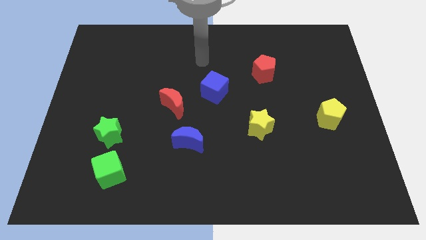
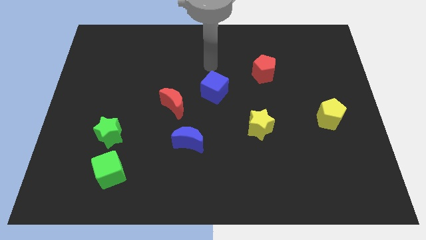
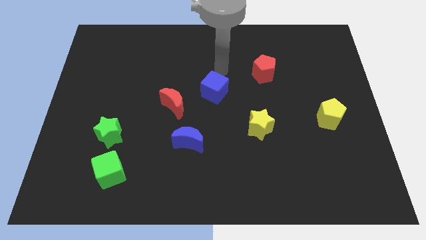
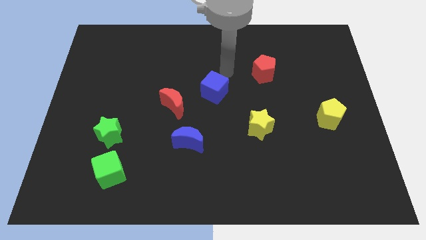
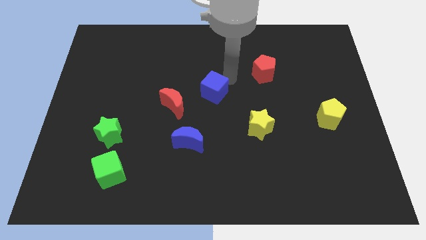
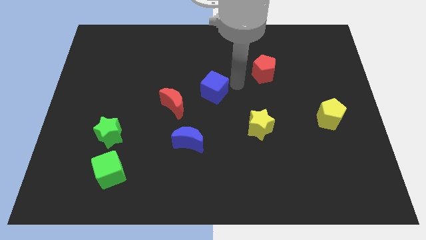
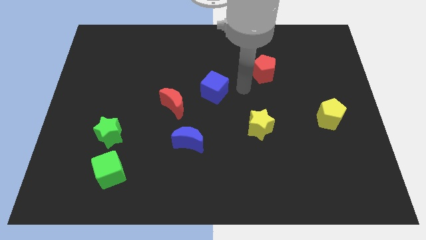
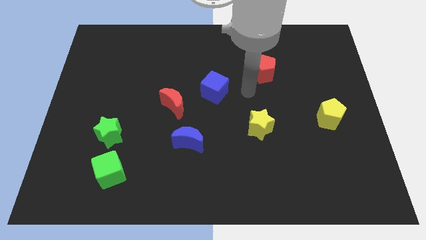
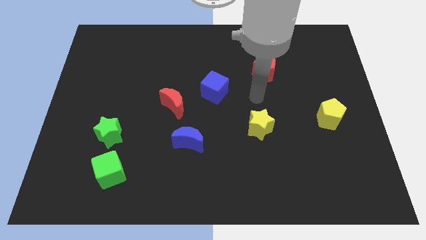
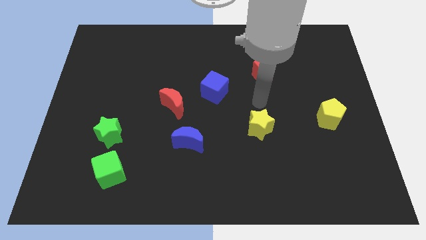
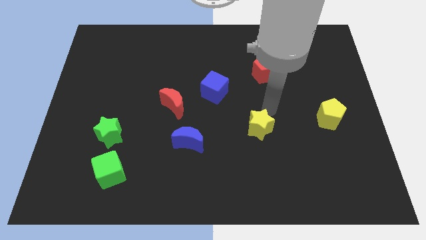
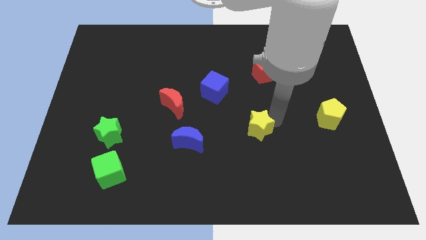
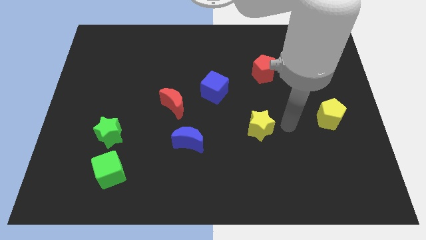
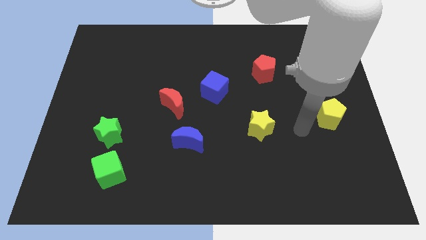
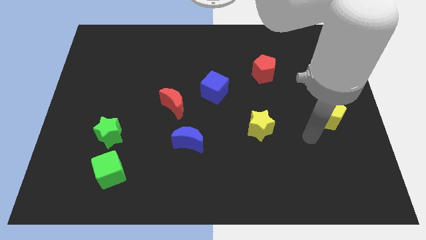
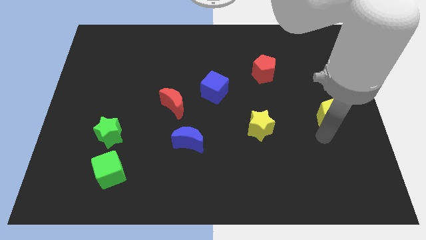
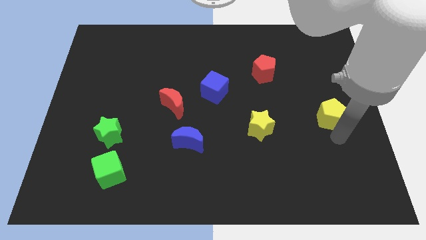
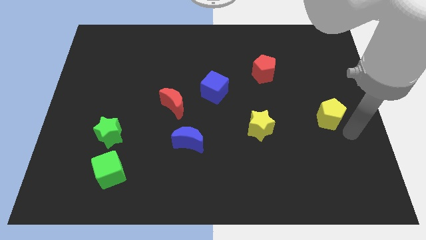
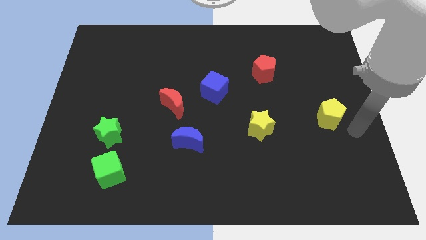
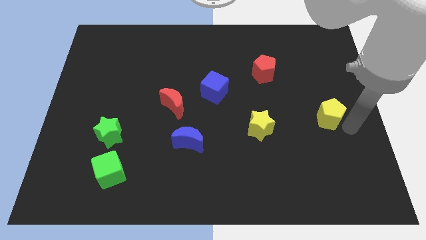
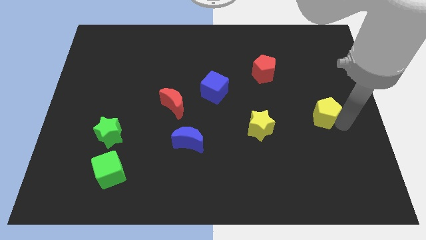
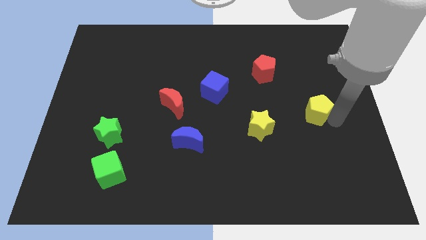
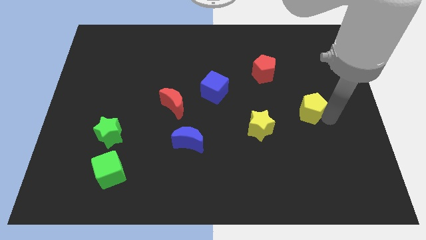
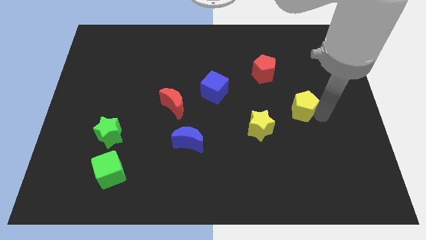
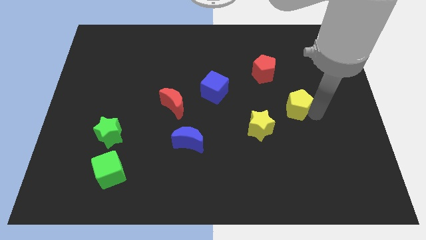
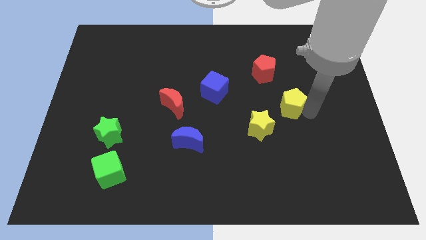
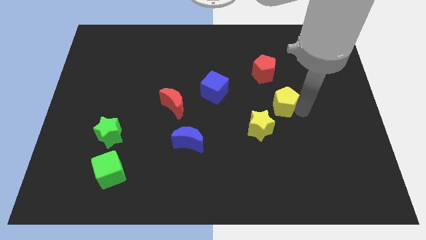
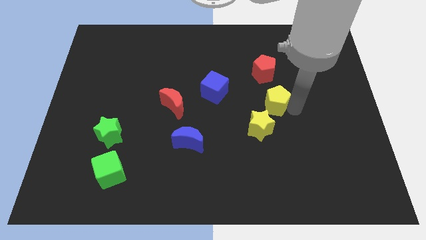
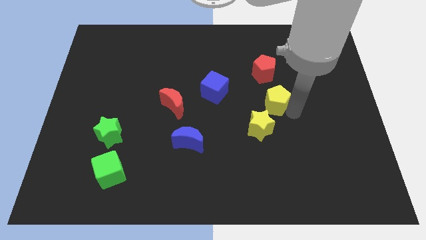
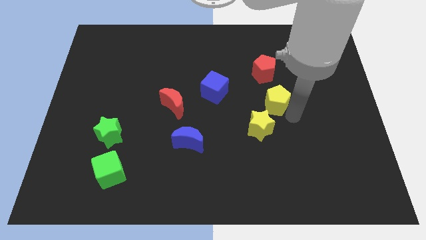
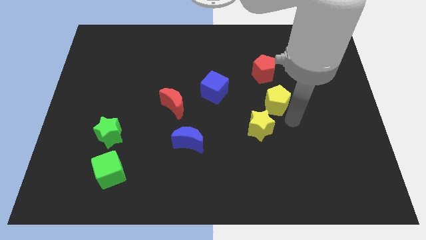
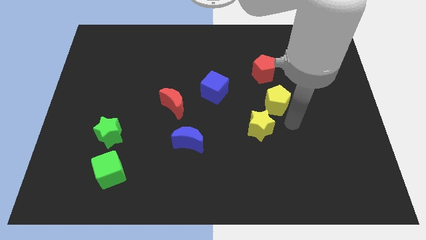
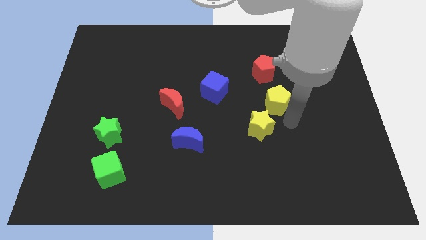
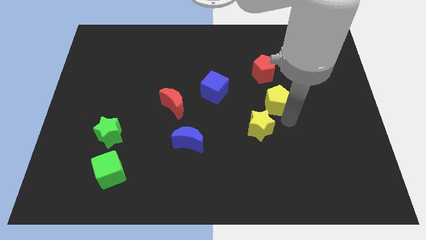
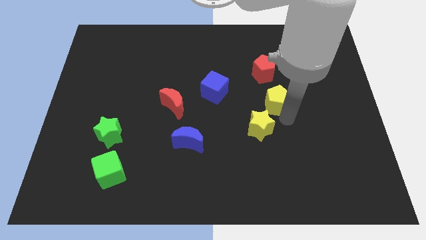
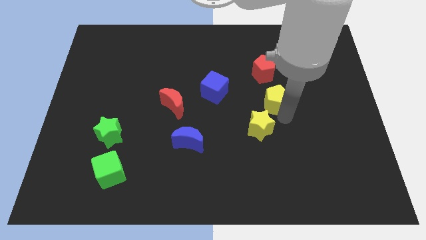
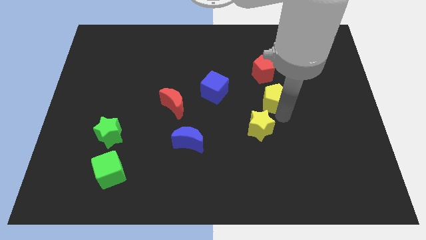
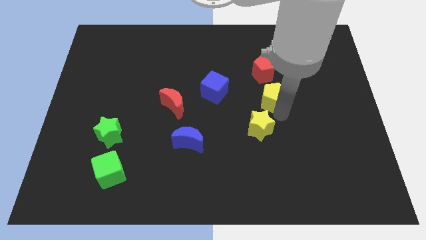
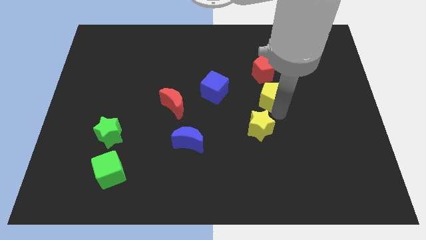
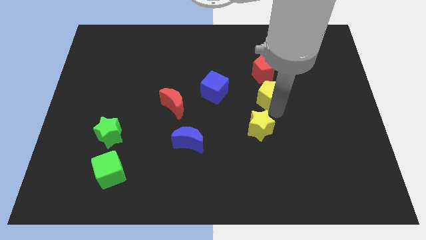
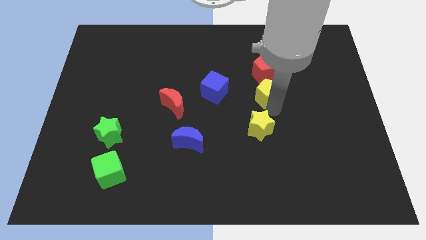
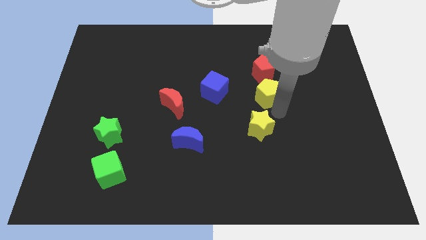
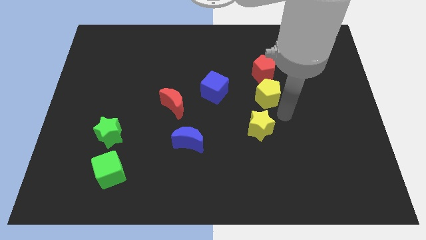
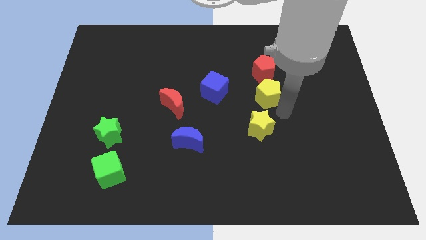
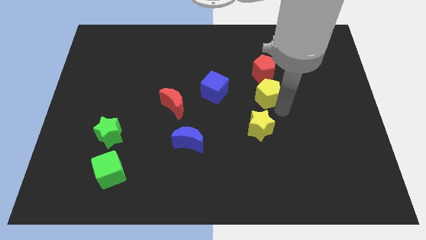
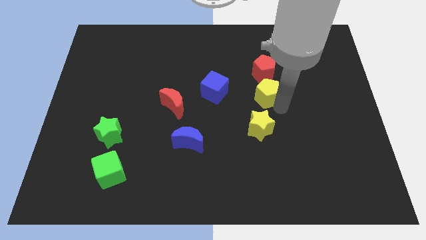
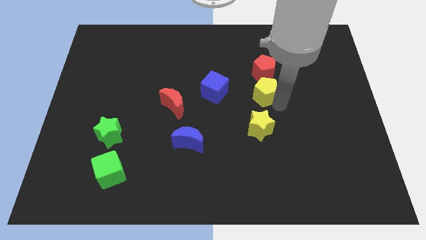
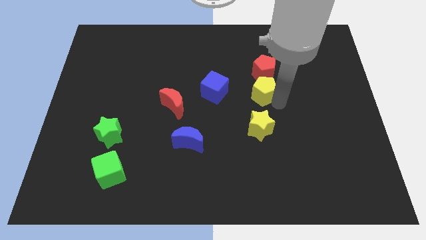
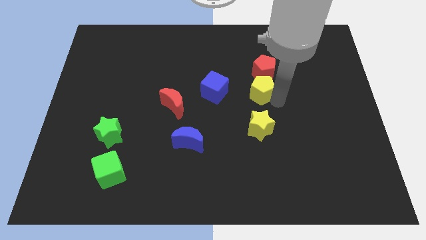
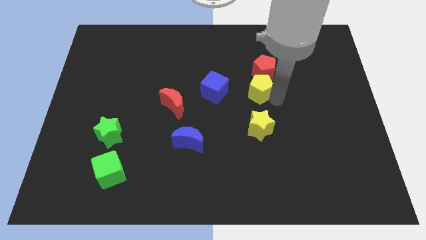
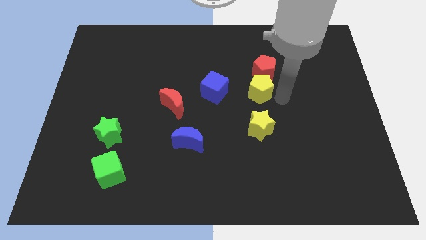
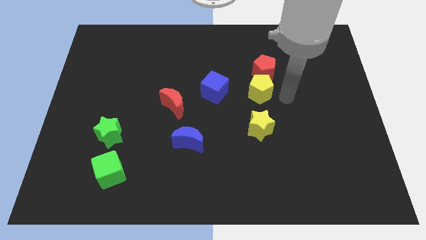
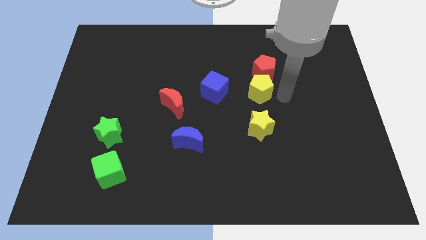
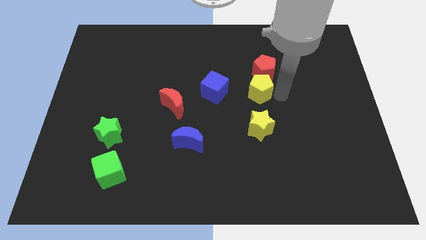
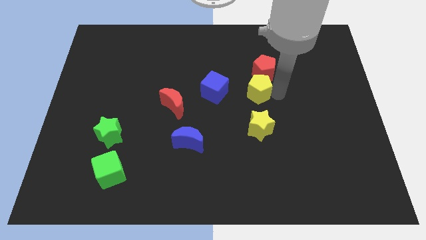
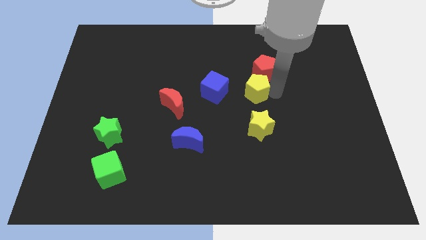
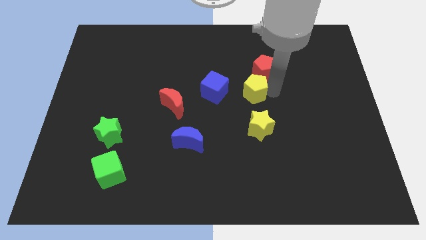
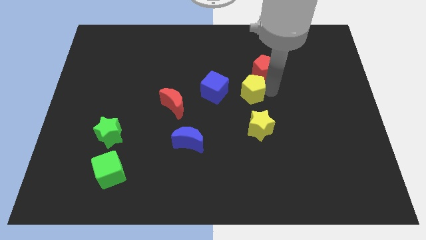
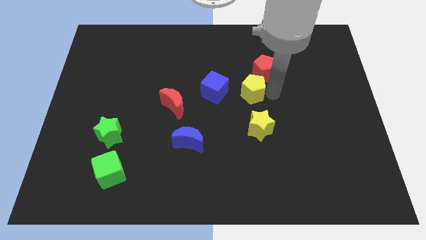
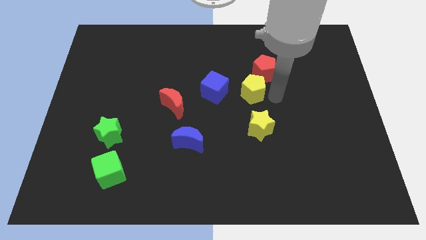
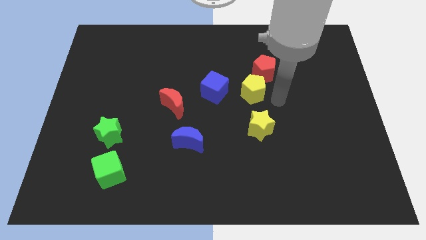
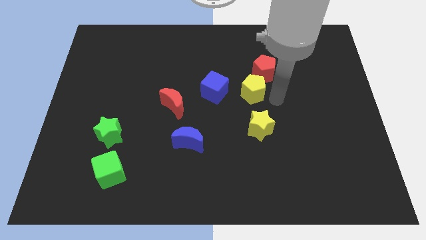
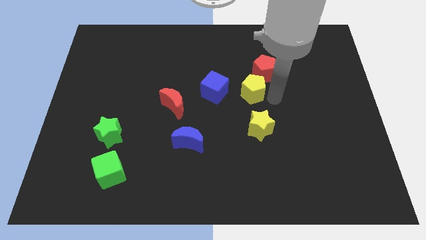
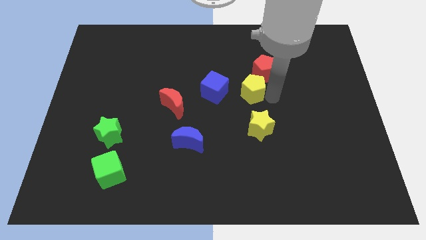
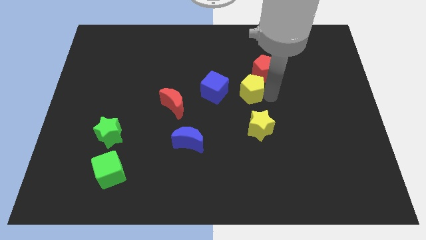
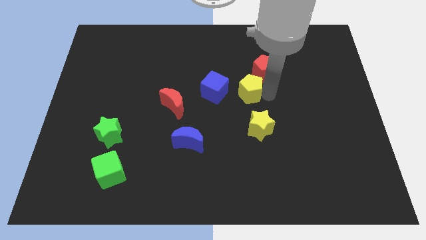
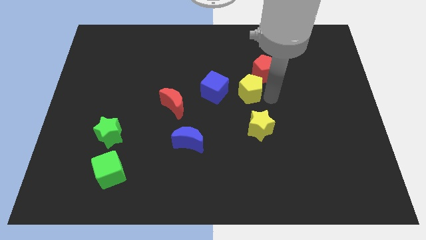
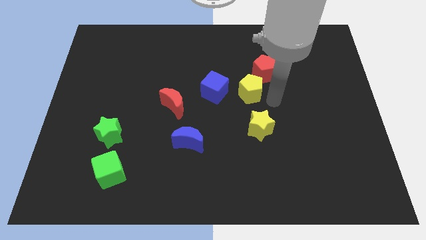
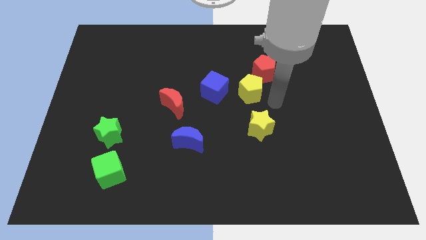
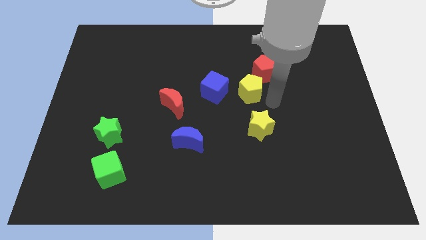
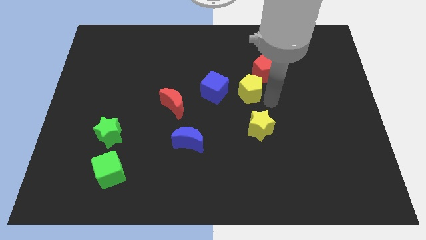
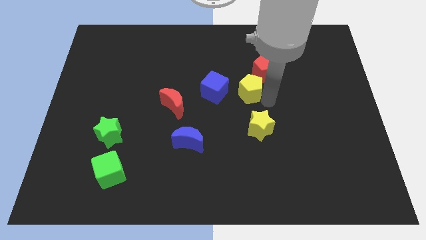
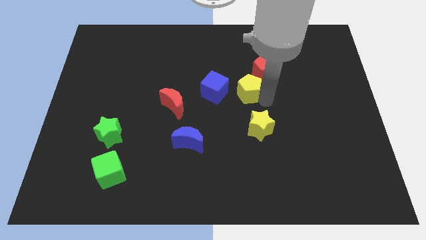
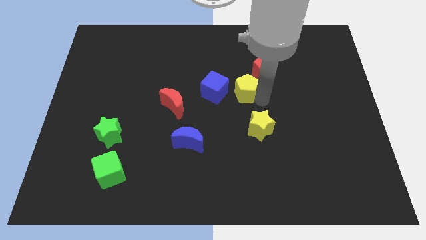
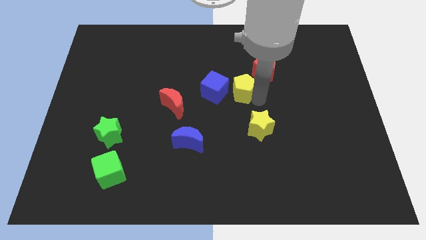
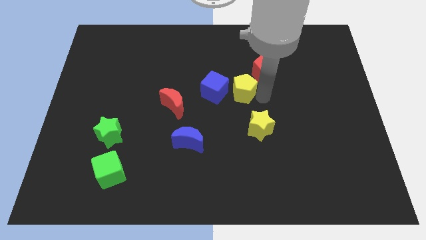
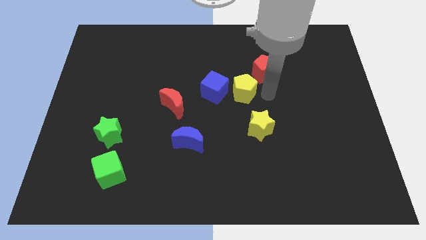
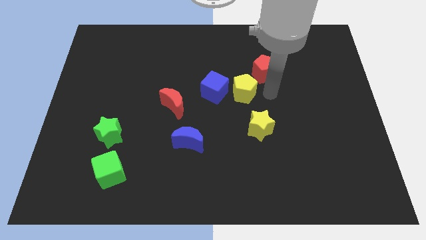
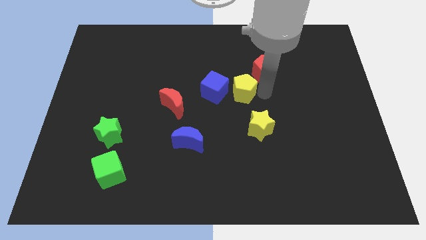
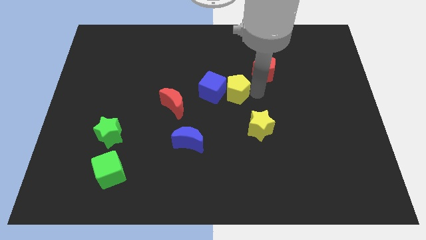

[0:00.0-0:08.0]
put the yellow pentagon close to the blue cube
